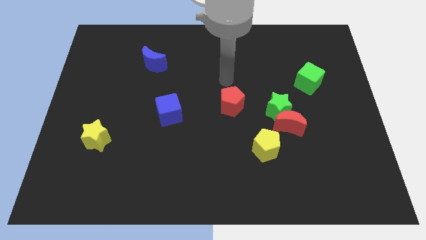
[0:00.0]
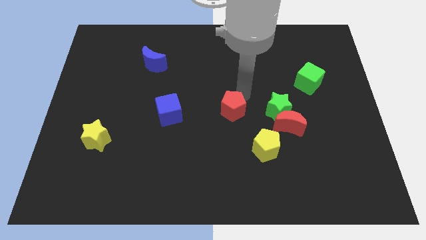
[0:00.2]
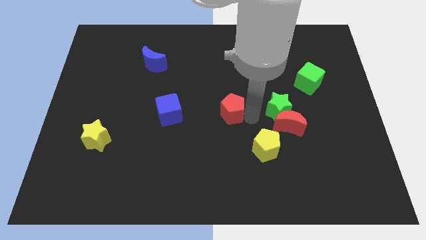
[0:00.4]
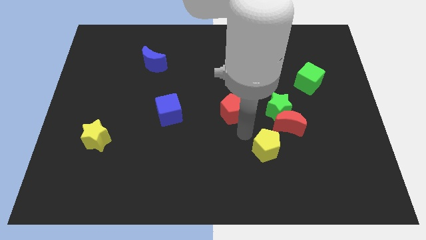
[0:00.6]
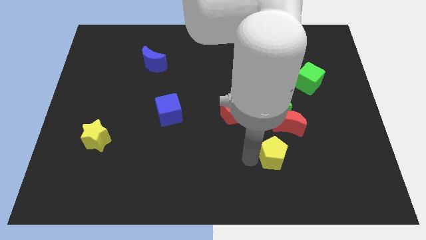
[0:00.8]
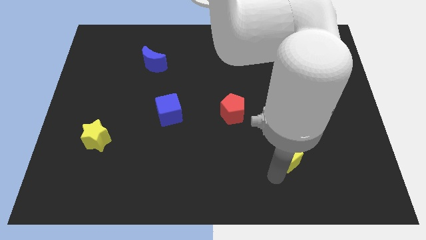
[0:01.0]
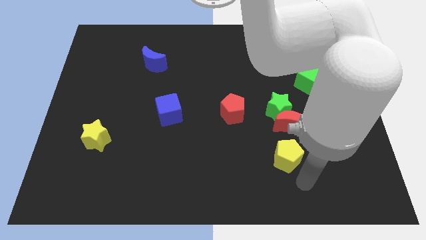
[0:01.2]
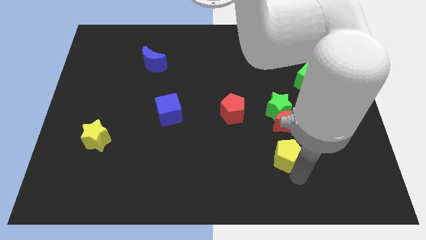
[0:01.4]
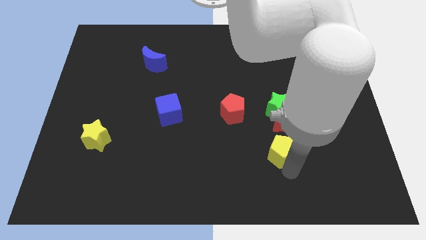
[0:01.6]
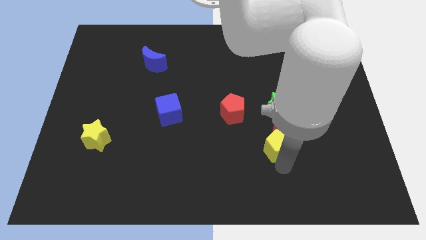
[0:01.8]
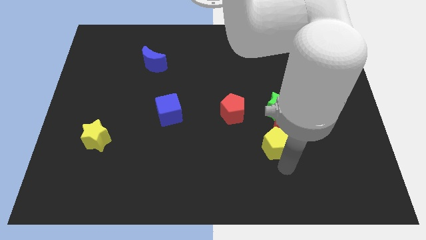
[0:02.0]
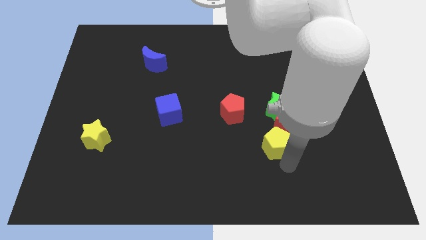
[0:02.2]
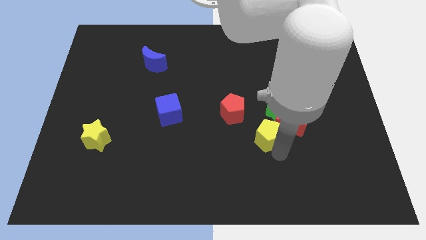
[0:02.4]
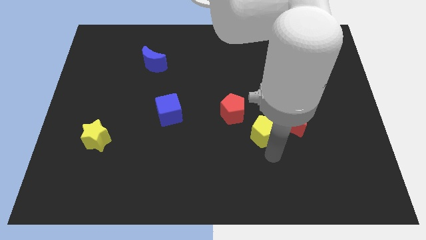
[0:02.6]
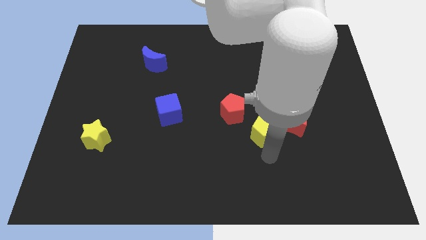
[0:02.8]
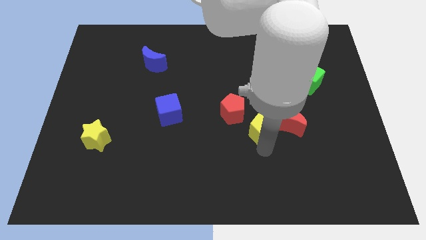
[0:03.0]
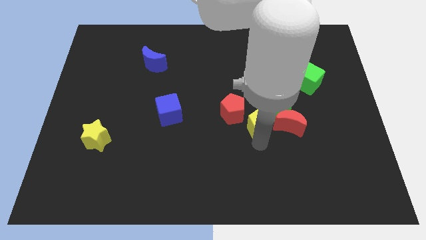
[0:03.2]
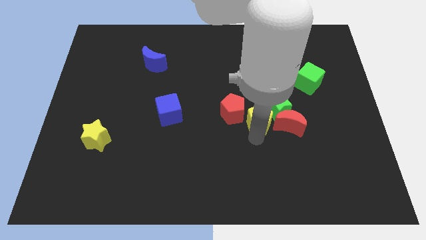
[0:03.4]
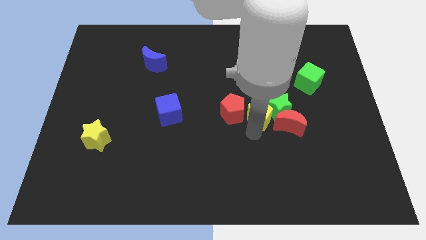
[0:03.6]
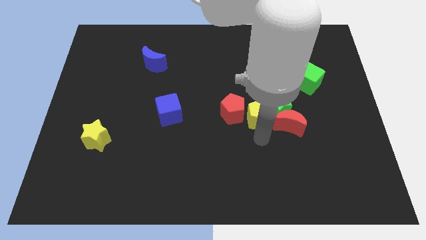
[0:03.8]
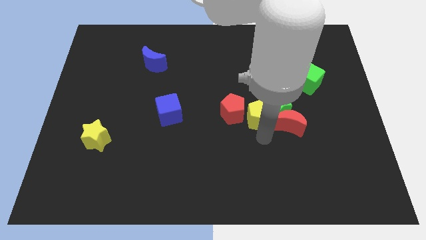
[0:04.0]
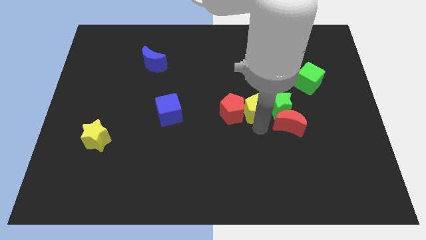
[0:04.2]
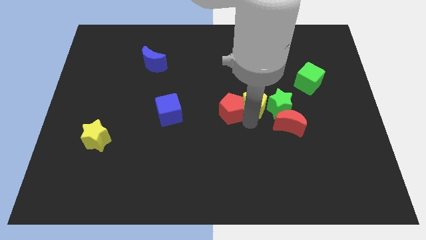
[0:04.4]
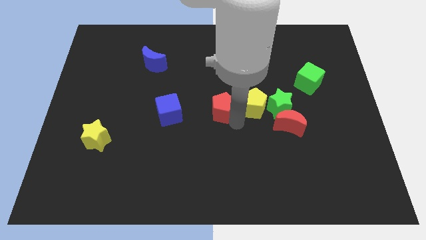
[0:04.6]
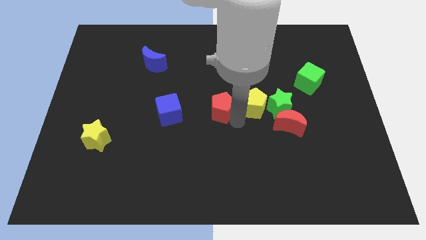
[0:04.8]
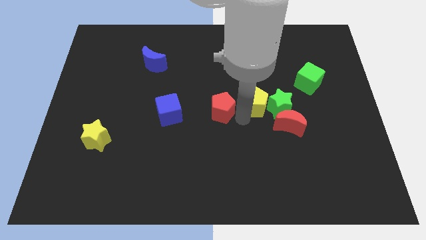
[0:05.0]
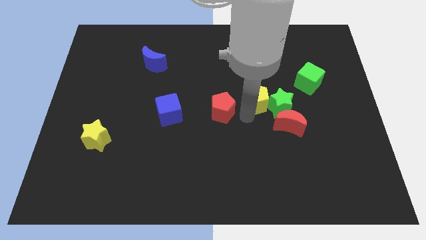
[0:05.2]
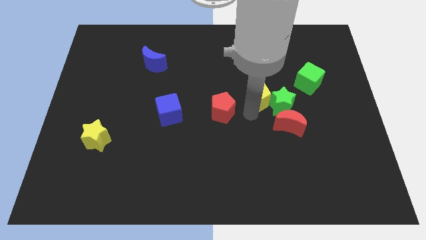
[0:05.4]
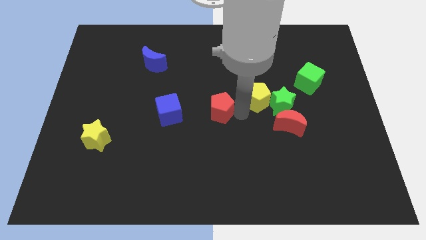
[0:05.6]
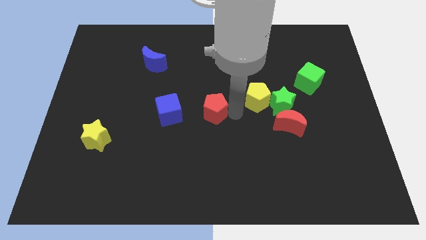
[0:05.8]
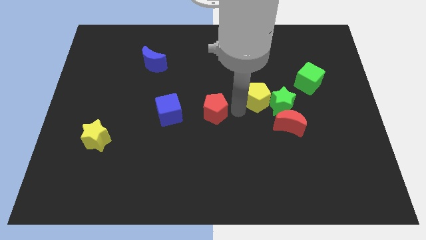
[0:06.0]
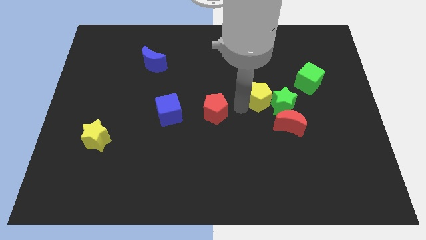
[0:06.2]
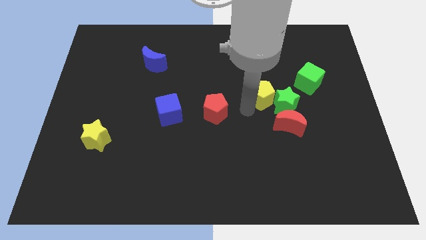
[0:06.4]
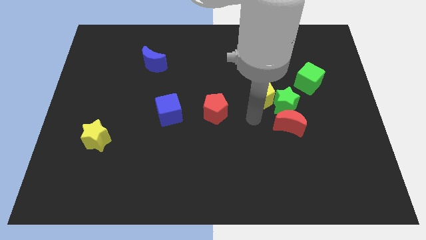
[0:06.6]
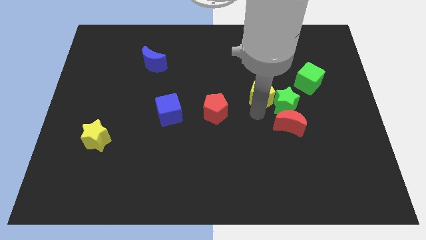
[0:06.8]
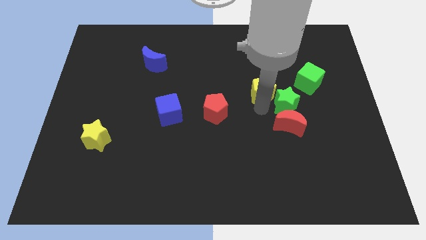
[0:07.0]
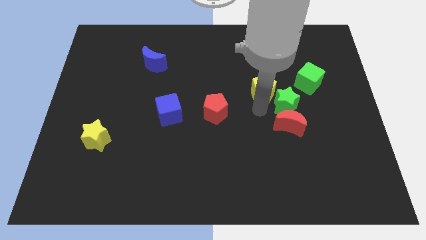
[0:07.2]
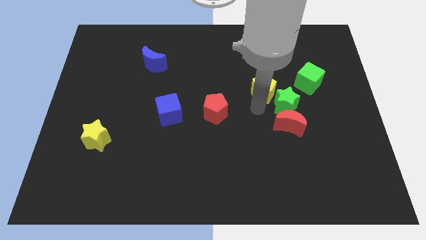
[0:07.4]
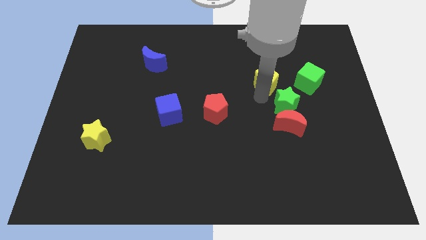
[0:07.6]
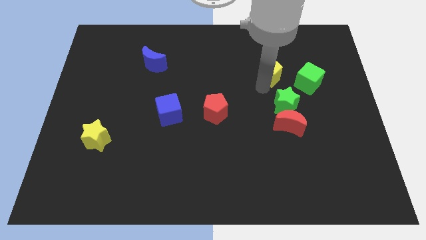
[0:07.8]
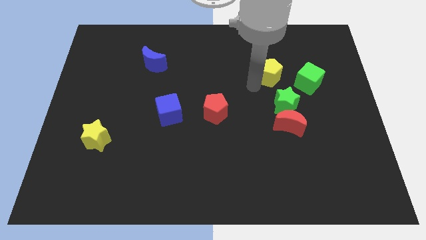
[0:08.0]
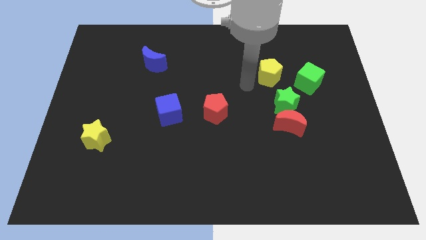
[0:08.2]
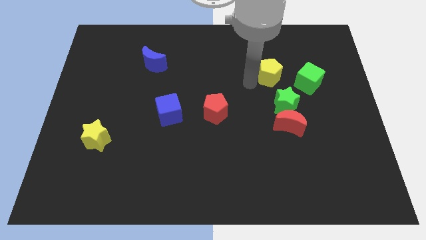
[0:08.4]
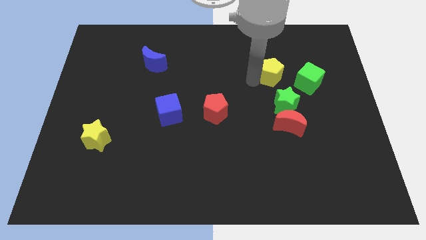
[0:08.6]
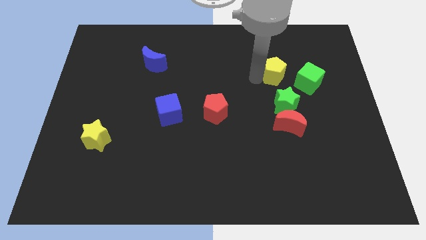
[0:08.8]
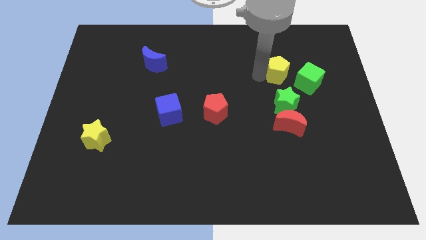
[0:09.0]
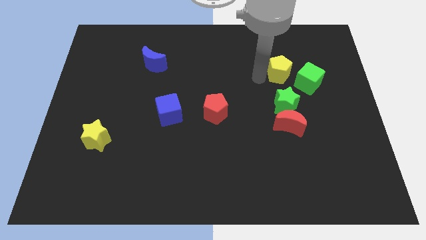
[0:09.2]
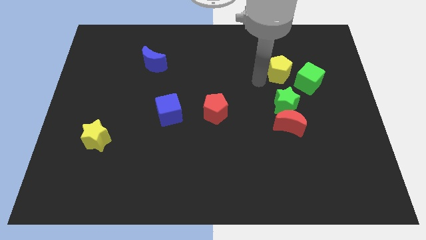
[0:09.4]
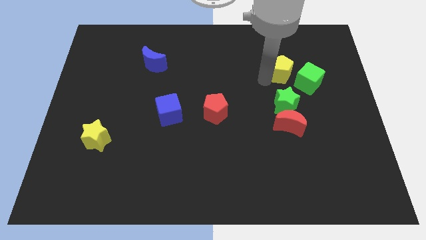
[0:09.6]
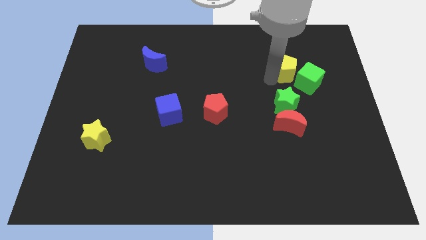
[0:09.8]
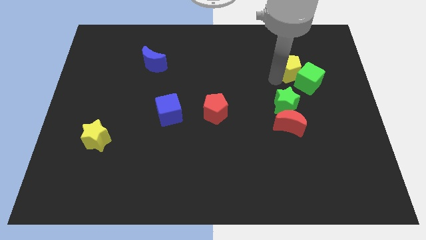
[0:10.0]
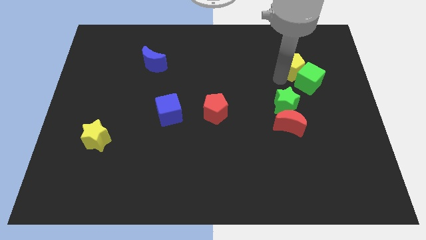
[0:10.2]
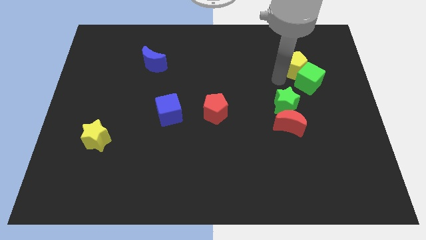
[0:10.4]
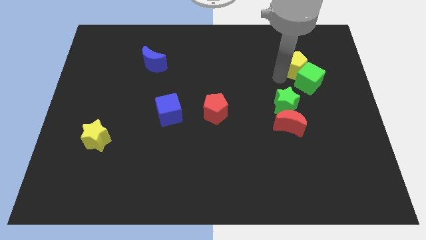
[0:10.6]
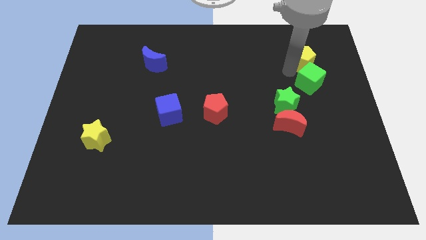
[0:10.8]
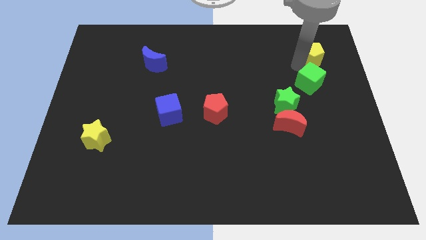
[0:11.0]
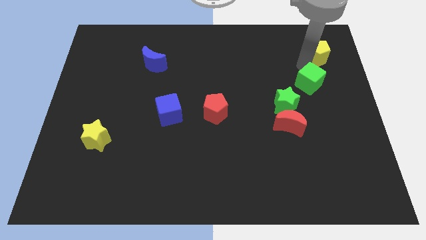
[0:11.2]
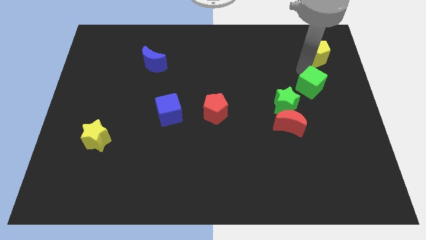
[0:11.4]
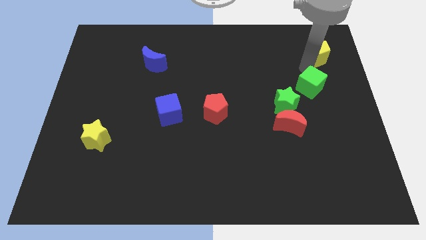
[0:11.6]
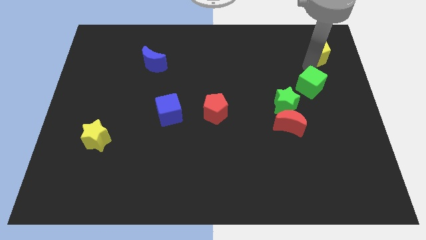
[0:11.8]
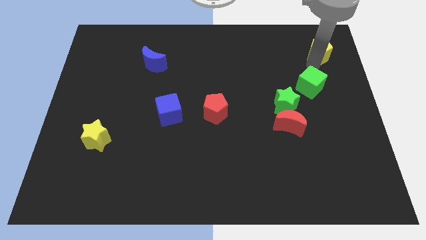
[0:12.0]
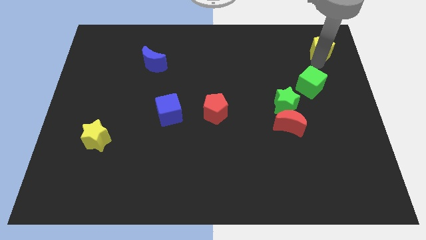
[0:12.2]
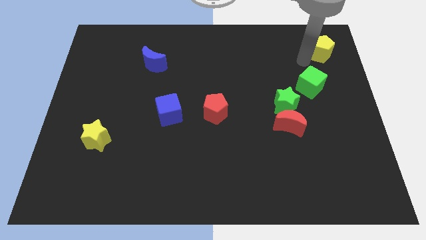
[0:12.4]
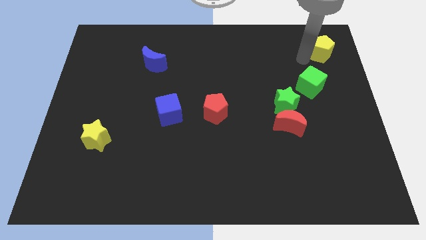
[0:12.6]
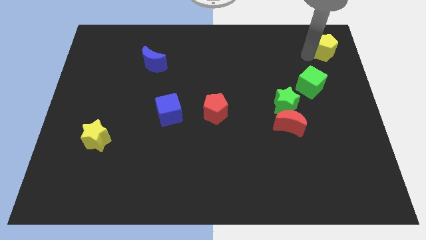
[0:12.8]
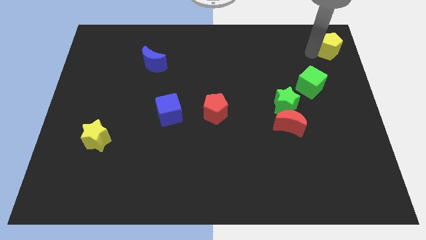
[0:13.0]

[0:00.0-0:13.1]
slide the yellow pentagon to the upper right corner
